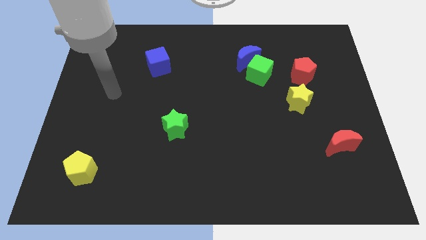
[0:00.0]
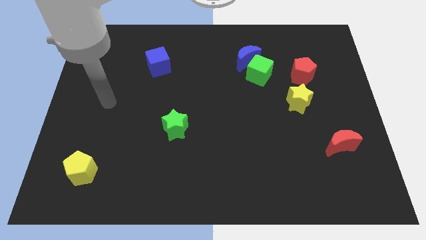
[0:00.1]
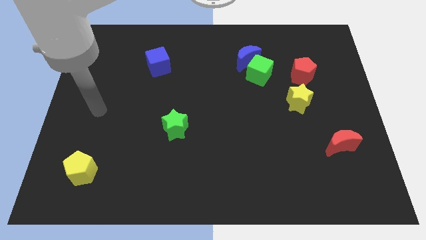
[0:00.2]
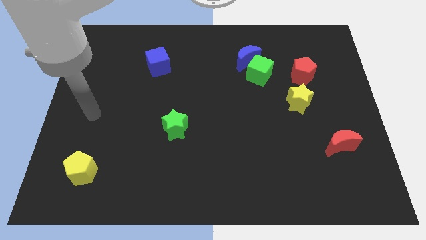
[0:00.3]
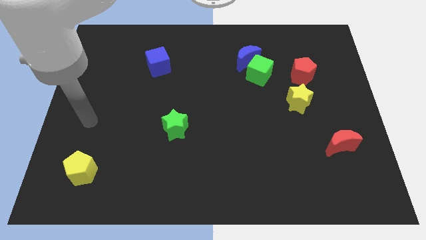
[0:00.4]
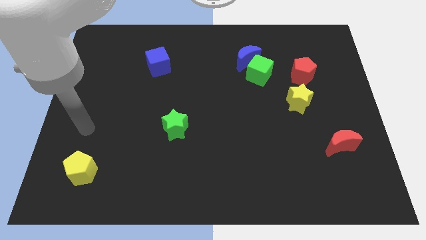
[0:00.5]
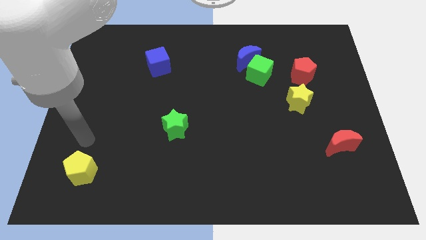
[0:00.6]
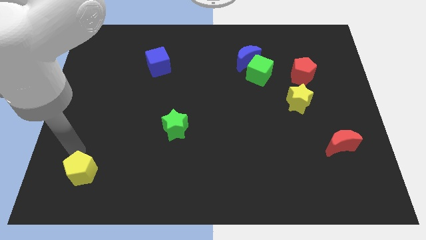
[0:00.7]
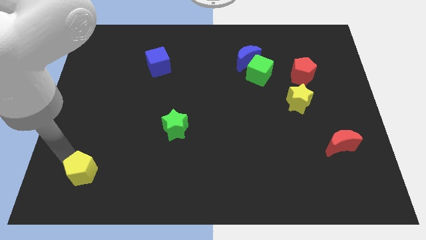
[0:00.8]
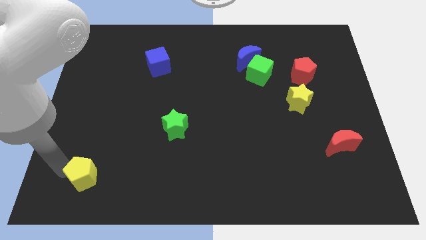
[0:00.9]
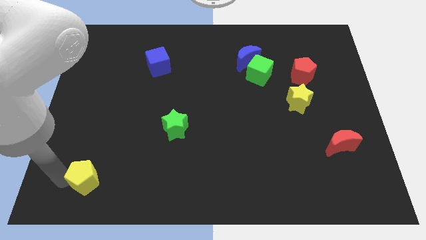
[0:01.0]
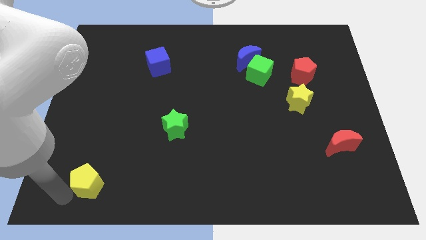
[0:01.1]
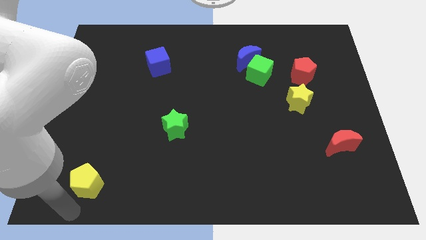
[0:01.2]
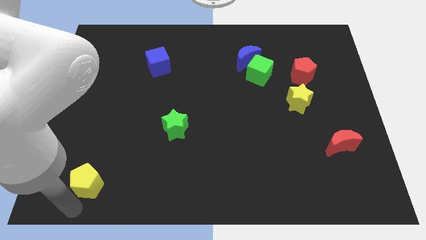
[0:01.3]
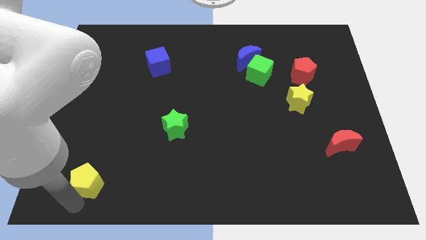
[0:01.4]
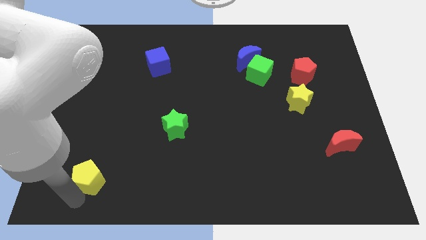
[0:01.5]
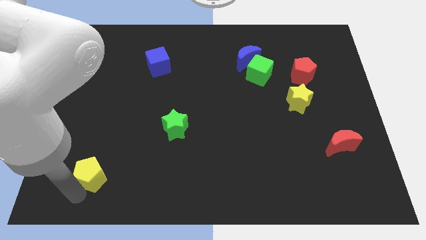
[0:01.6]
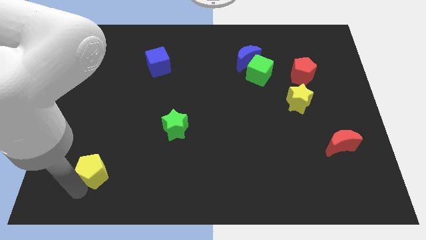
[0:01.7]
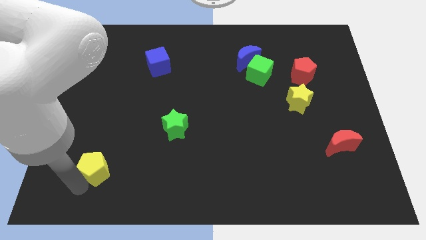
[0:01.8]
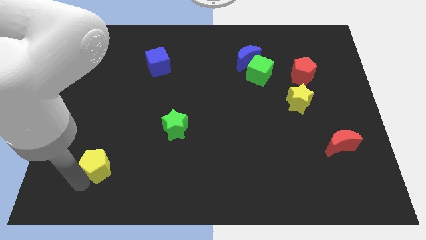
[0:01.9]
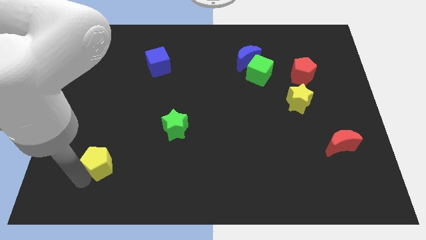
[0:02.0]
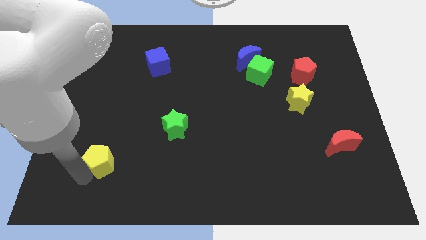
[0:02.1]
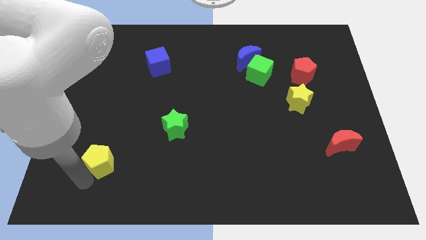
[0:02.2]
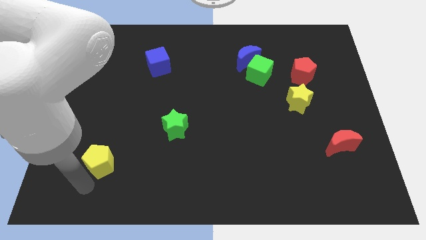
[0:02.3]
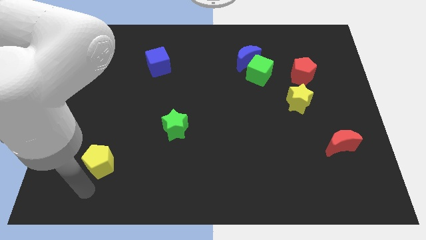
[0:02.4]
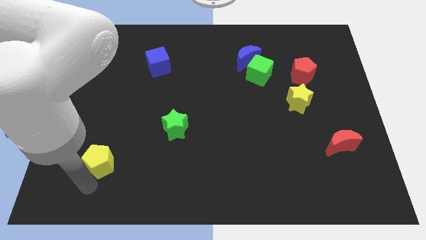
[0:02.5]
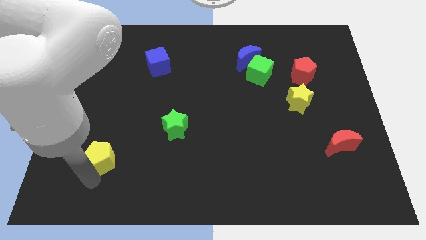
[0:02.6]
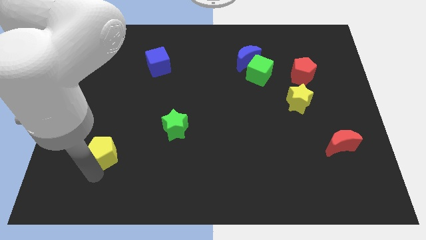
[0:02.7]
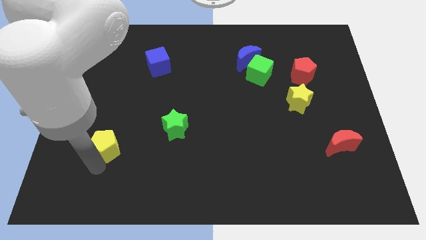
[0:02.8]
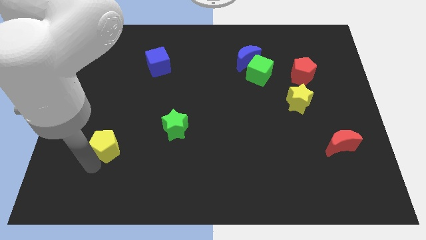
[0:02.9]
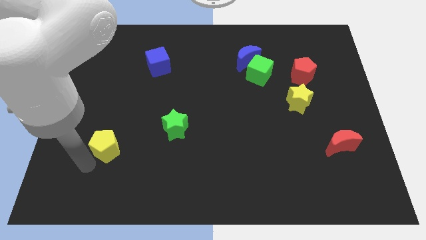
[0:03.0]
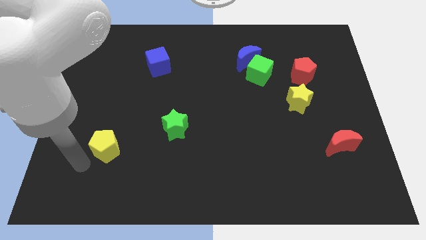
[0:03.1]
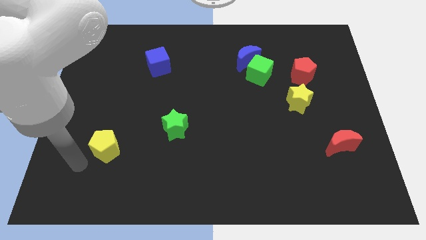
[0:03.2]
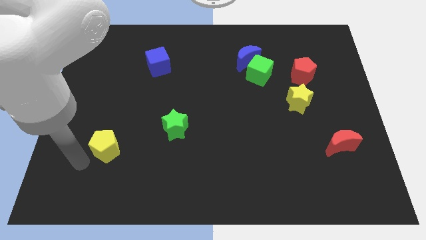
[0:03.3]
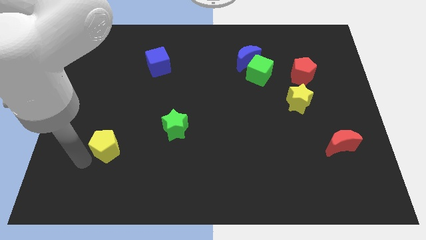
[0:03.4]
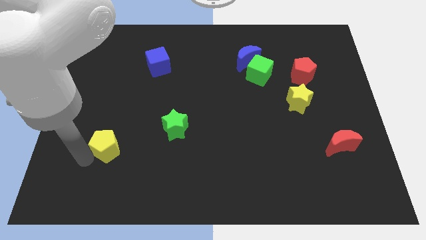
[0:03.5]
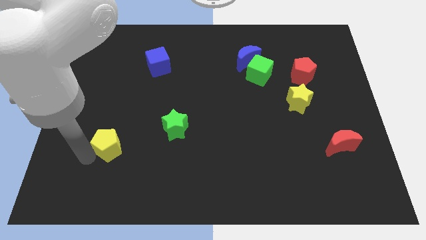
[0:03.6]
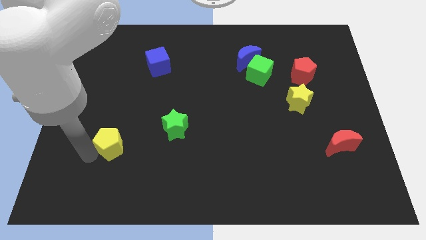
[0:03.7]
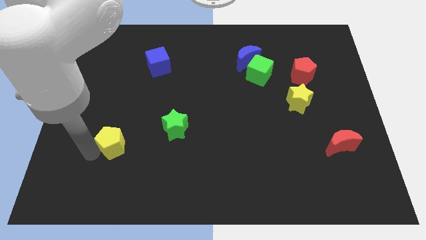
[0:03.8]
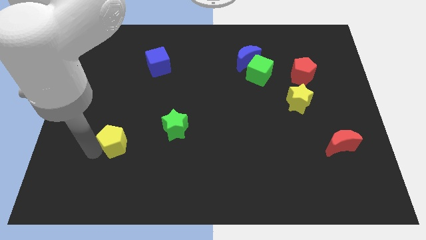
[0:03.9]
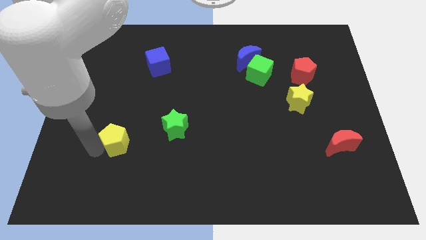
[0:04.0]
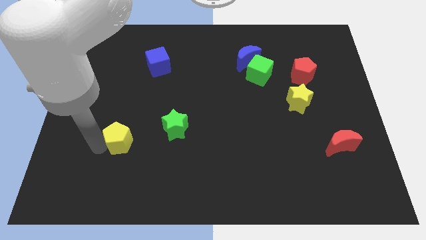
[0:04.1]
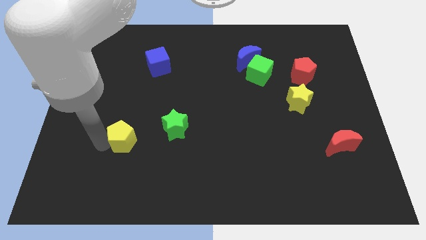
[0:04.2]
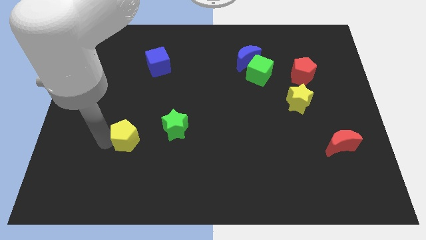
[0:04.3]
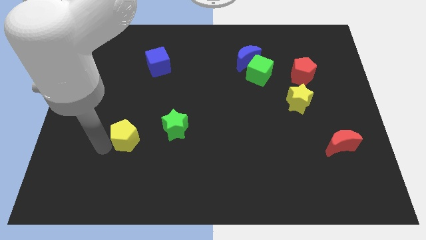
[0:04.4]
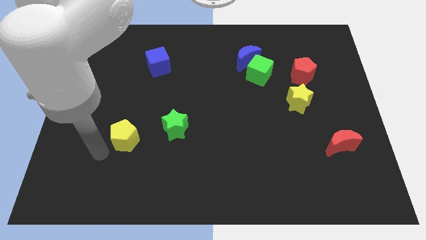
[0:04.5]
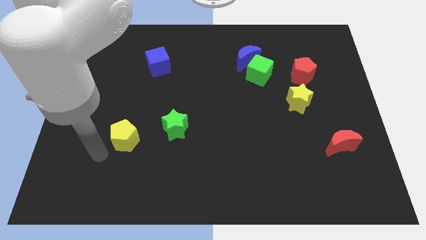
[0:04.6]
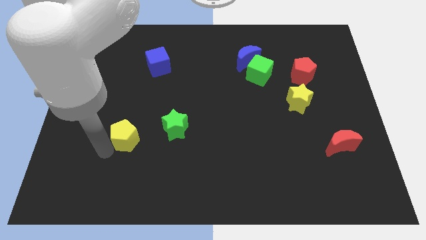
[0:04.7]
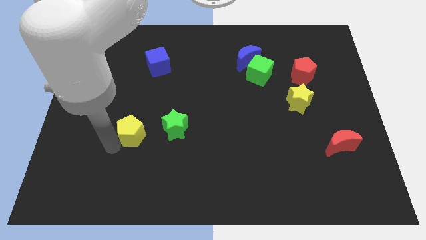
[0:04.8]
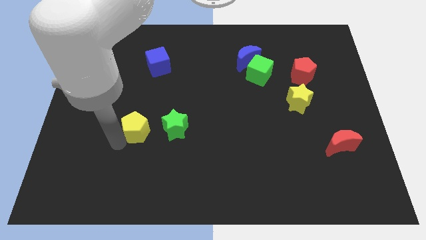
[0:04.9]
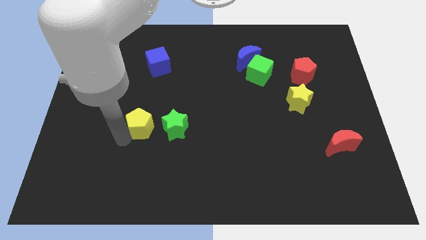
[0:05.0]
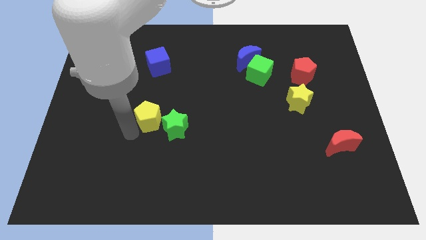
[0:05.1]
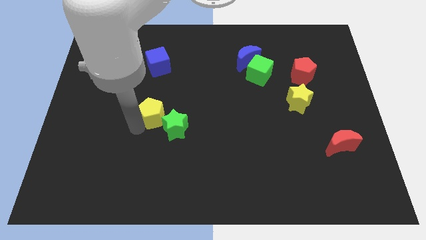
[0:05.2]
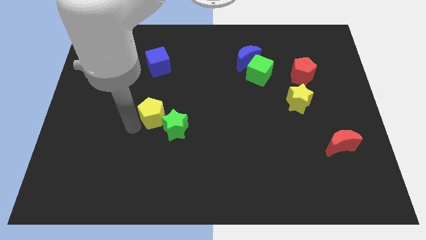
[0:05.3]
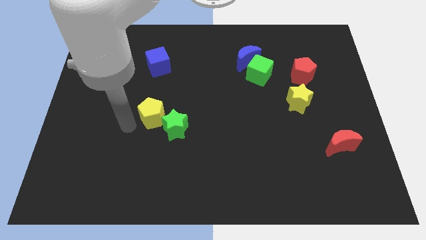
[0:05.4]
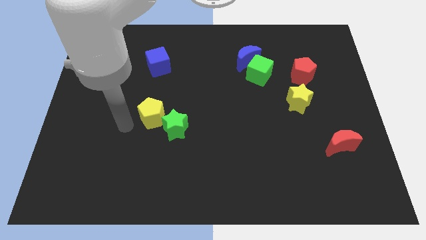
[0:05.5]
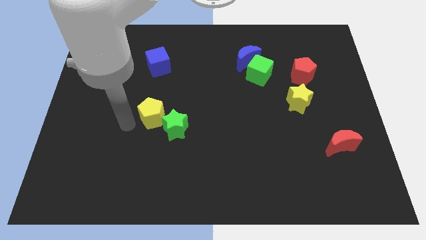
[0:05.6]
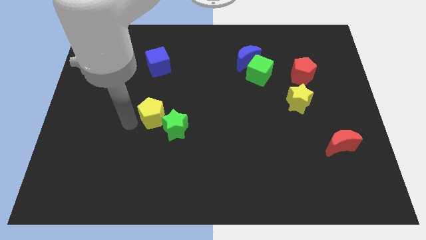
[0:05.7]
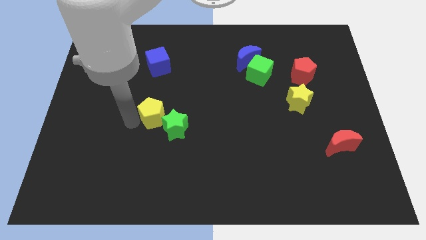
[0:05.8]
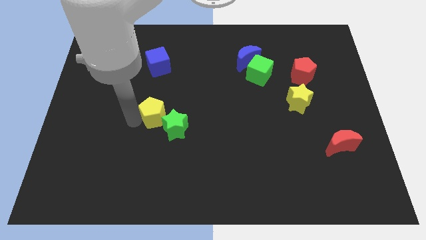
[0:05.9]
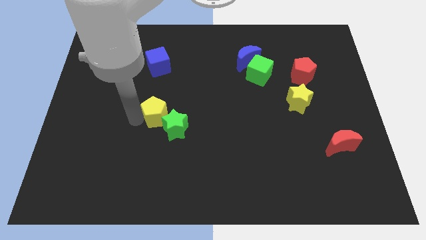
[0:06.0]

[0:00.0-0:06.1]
slide the yellow pentagon up and right

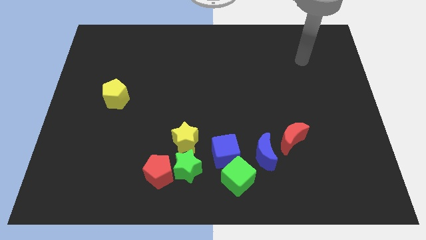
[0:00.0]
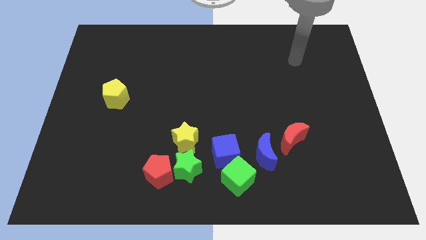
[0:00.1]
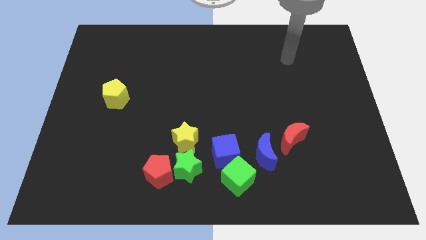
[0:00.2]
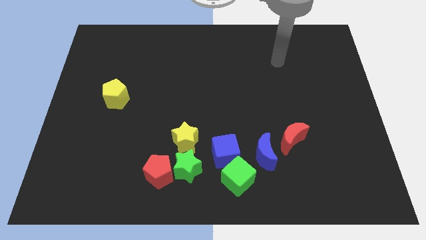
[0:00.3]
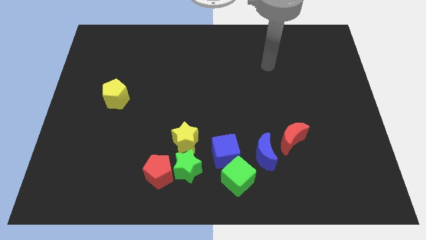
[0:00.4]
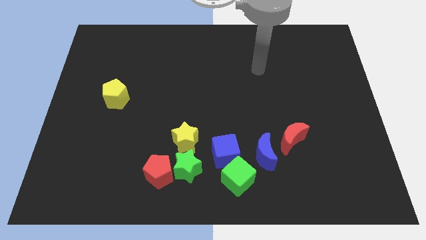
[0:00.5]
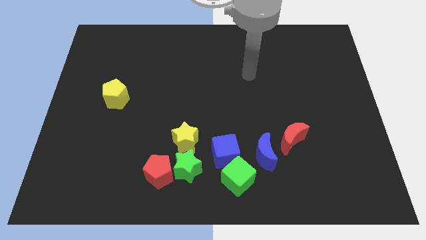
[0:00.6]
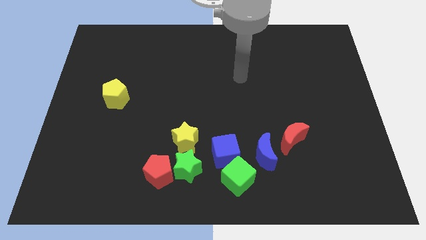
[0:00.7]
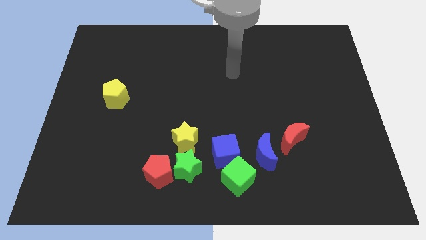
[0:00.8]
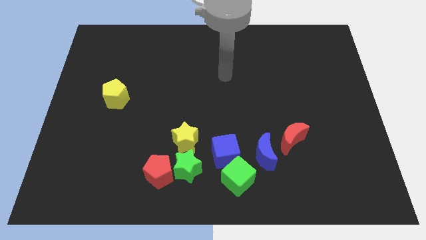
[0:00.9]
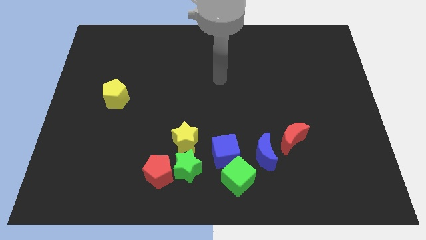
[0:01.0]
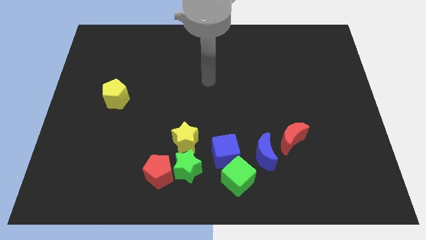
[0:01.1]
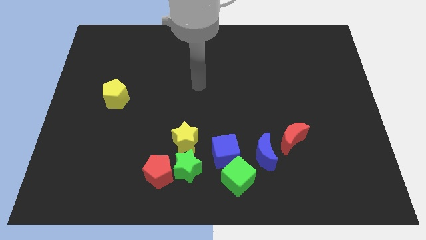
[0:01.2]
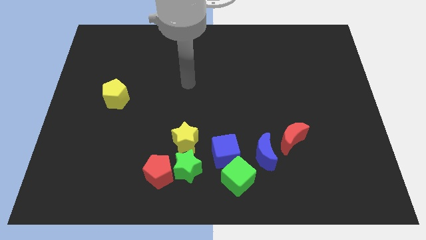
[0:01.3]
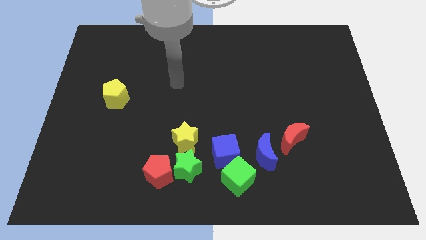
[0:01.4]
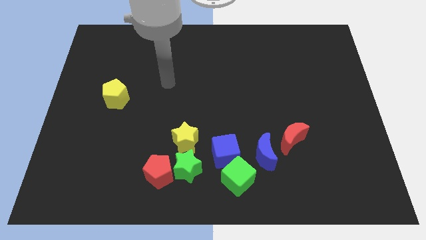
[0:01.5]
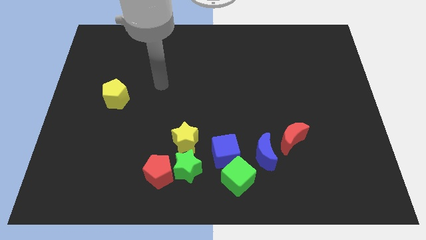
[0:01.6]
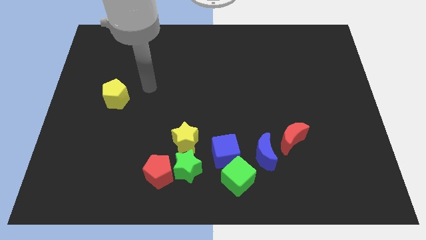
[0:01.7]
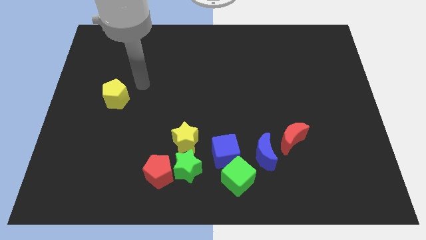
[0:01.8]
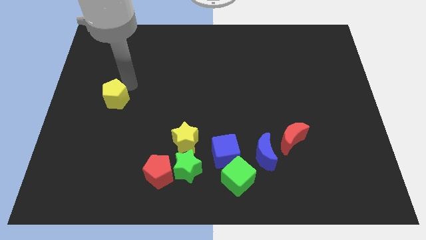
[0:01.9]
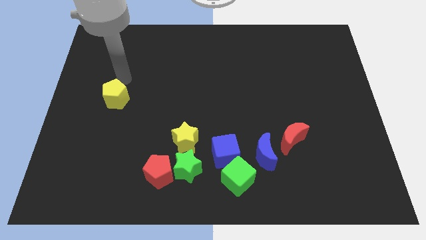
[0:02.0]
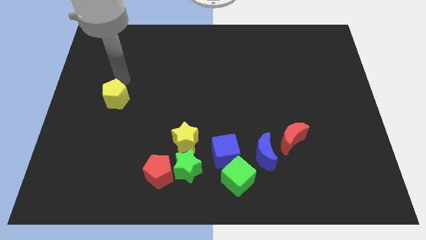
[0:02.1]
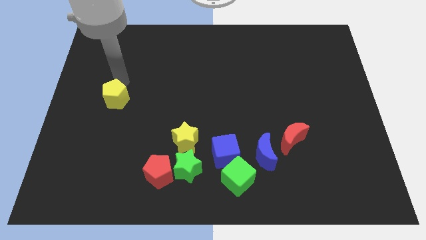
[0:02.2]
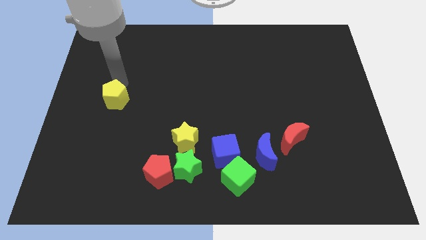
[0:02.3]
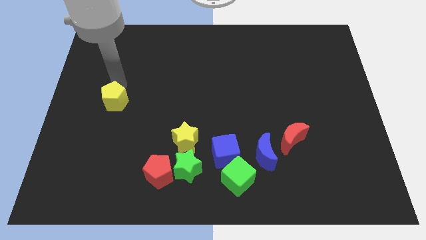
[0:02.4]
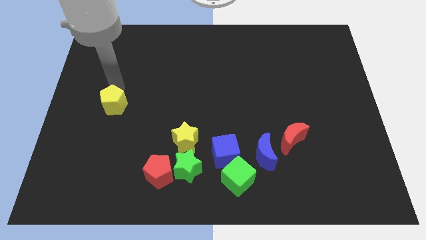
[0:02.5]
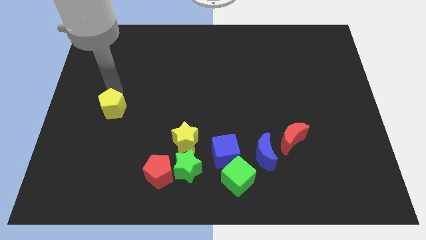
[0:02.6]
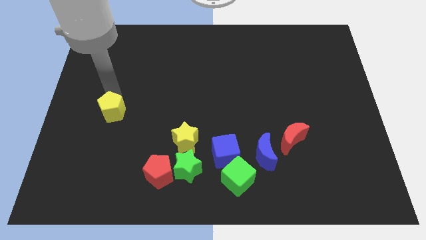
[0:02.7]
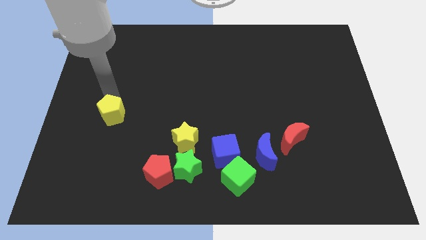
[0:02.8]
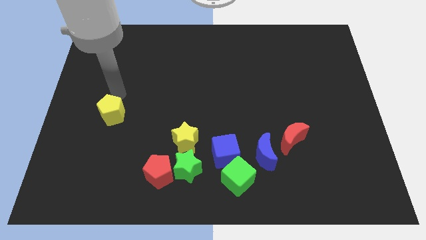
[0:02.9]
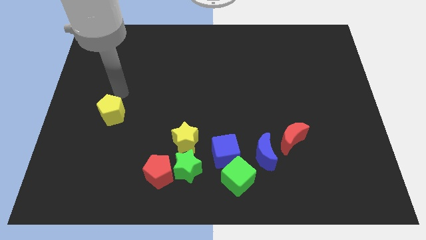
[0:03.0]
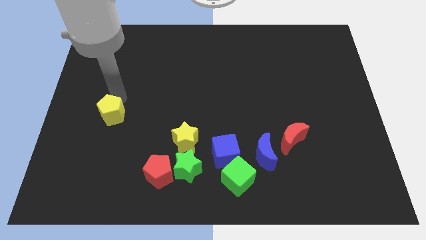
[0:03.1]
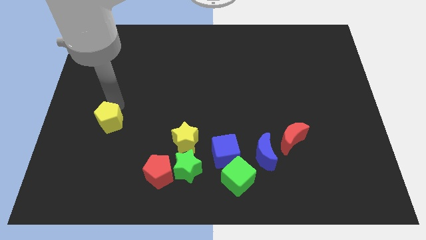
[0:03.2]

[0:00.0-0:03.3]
push the yellow pentagon a little downwards
